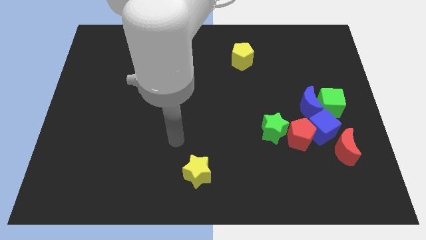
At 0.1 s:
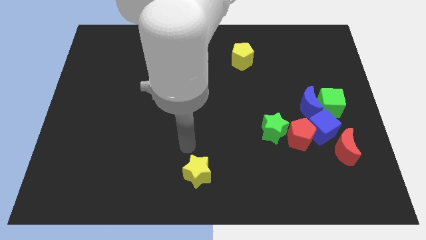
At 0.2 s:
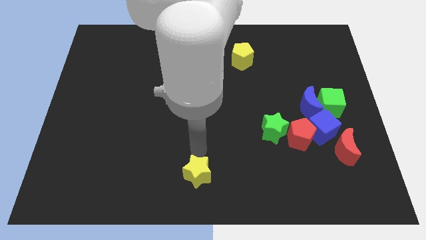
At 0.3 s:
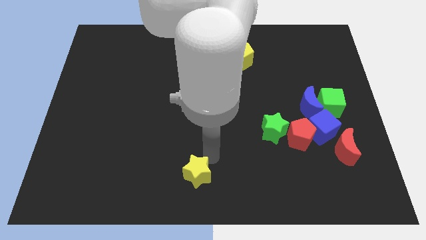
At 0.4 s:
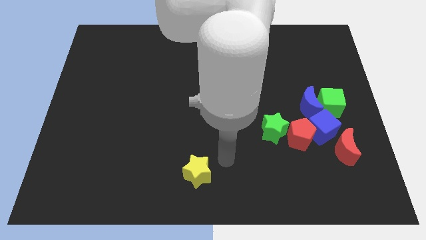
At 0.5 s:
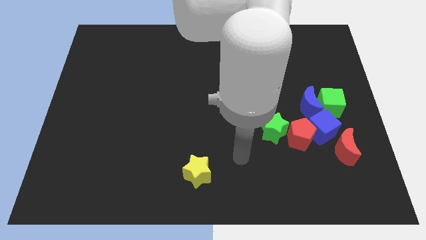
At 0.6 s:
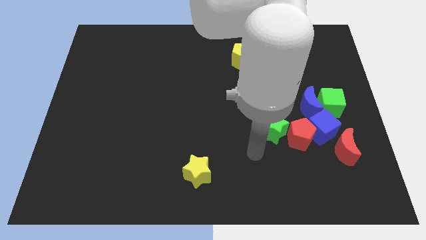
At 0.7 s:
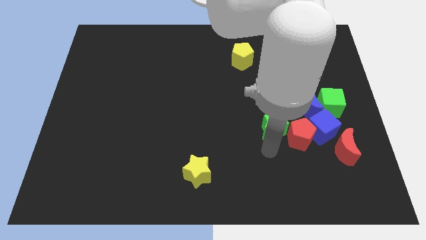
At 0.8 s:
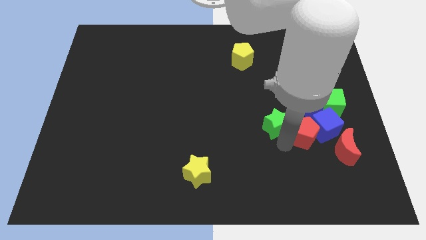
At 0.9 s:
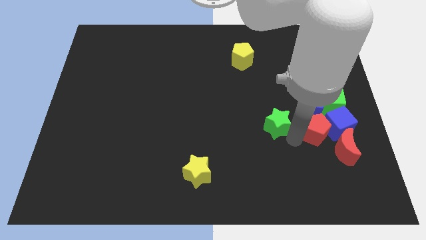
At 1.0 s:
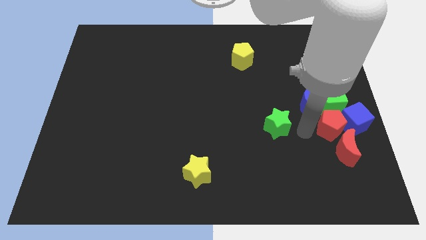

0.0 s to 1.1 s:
move the green star away from the red pentagon

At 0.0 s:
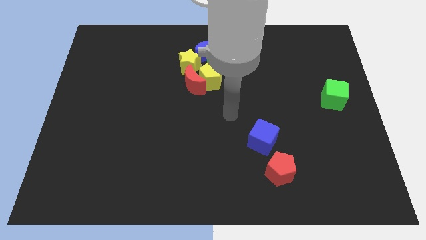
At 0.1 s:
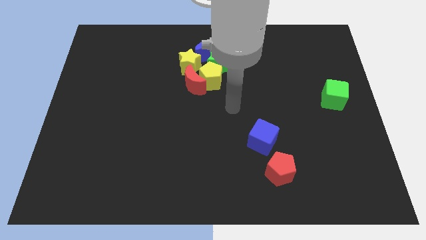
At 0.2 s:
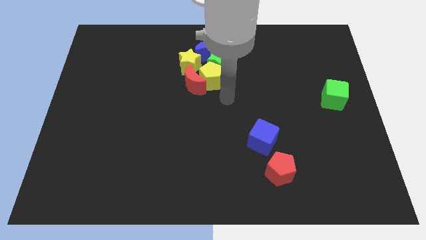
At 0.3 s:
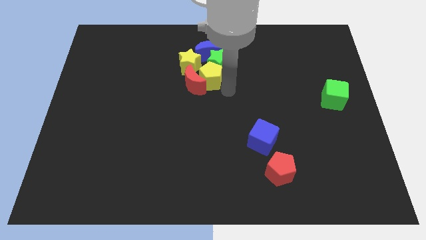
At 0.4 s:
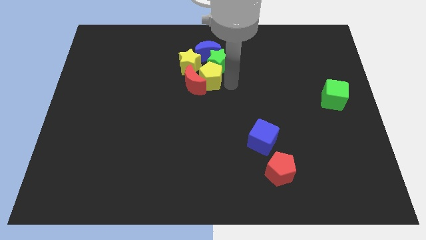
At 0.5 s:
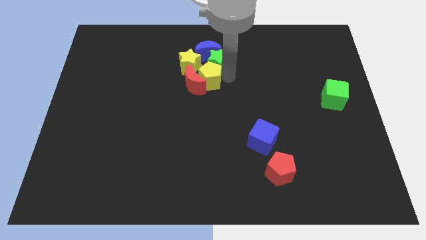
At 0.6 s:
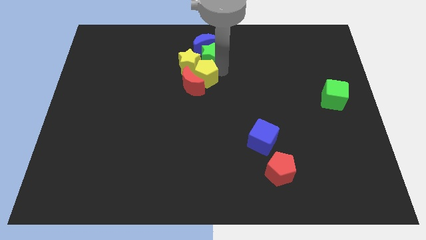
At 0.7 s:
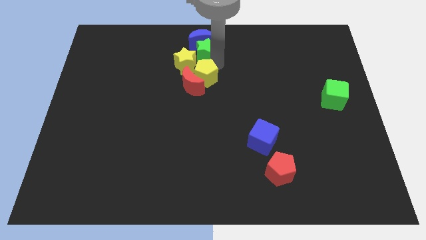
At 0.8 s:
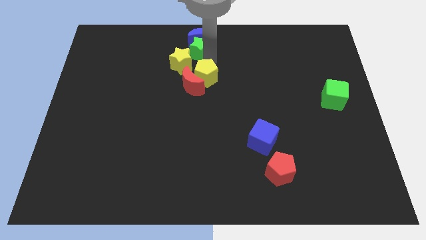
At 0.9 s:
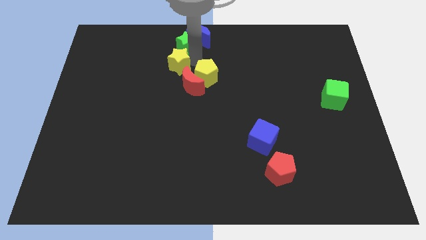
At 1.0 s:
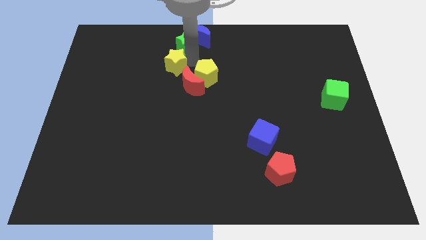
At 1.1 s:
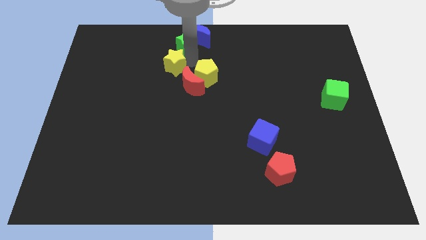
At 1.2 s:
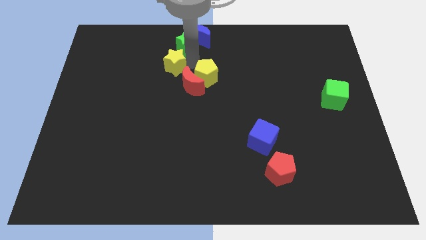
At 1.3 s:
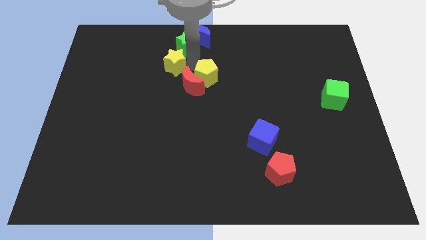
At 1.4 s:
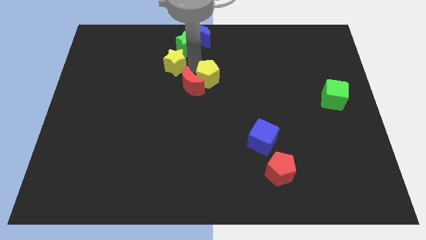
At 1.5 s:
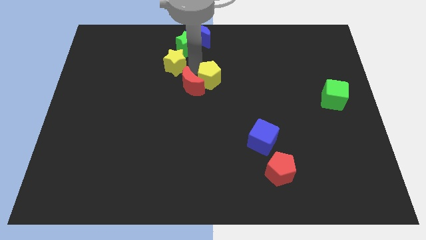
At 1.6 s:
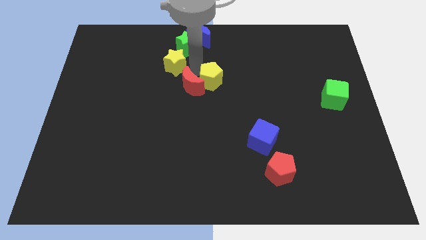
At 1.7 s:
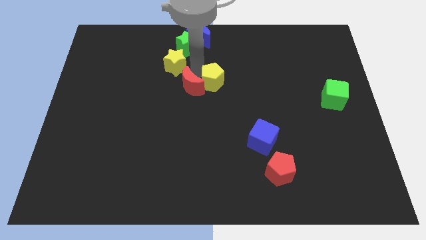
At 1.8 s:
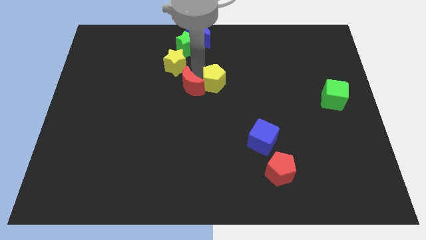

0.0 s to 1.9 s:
separate the yellow pentagon from the clump

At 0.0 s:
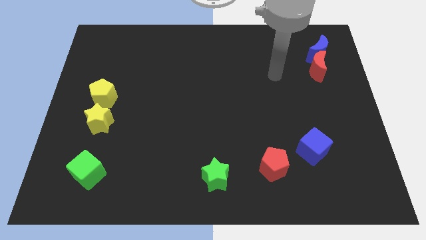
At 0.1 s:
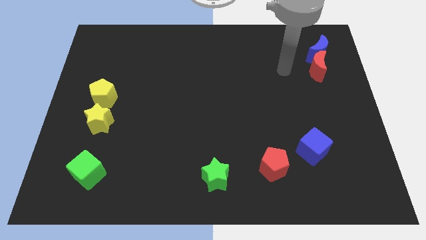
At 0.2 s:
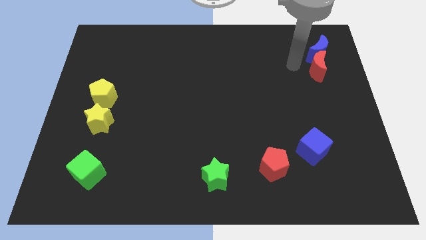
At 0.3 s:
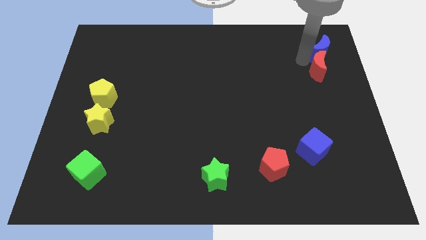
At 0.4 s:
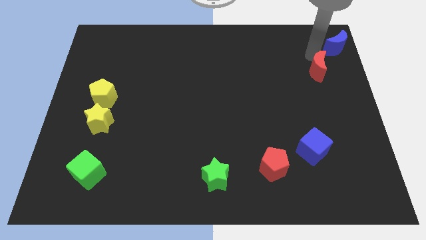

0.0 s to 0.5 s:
move the red moon away from the blue moon

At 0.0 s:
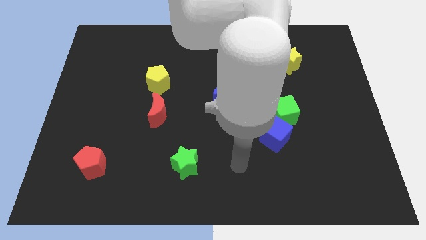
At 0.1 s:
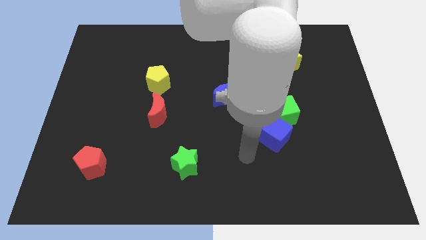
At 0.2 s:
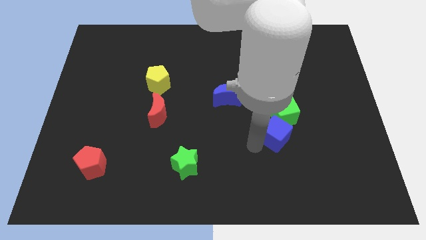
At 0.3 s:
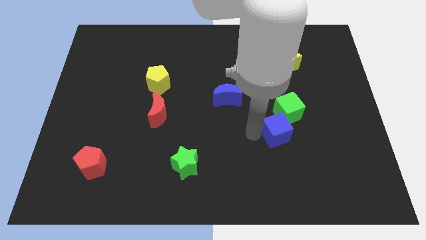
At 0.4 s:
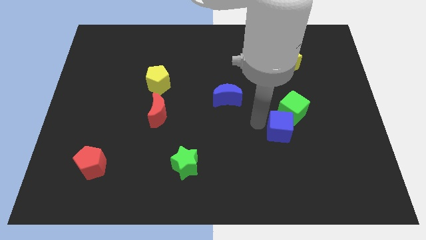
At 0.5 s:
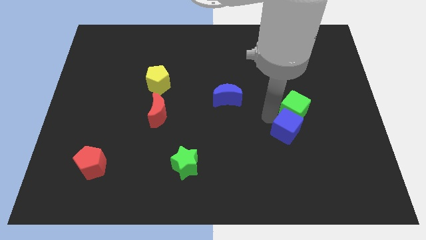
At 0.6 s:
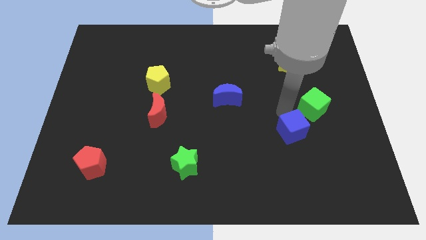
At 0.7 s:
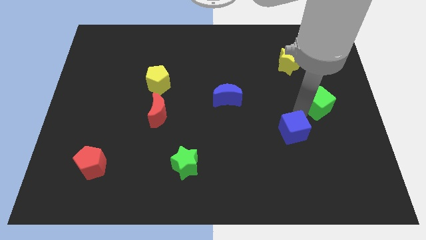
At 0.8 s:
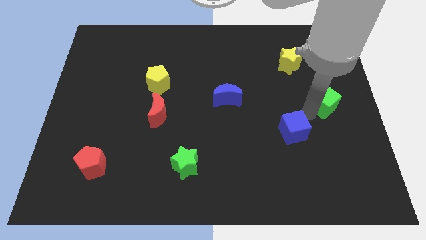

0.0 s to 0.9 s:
move the blue cube away from the green cube

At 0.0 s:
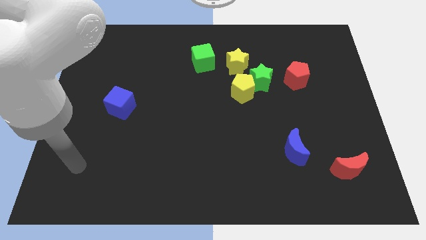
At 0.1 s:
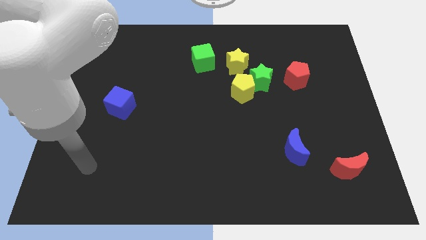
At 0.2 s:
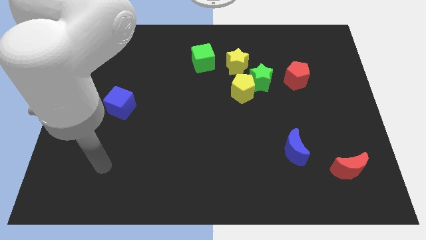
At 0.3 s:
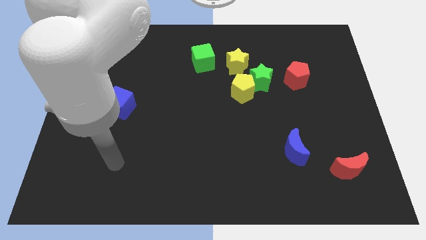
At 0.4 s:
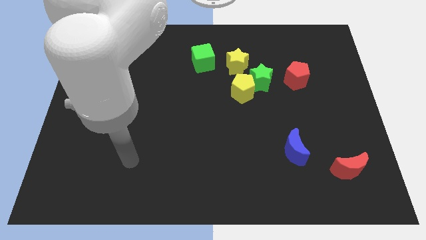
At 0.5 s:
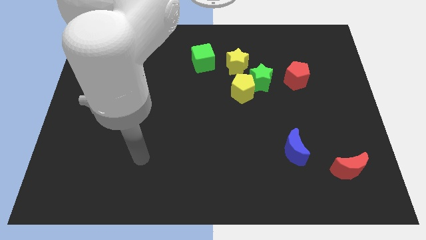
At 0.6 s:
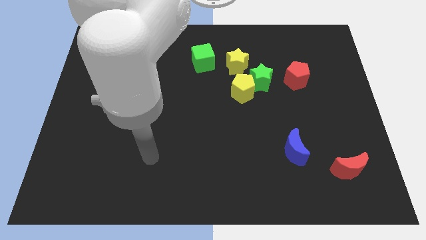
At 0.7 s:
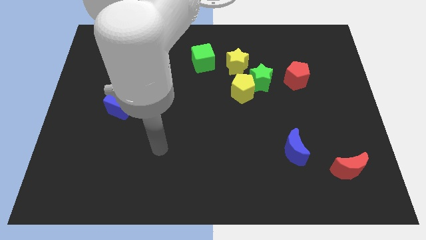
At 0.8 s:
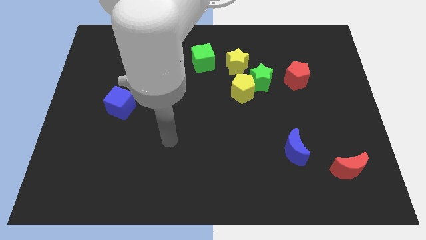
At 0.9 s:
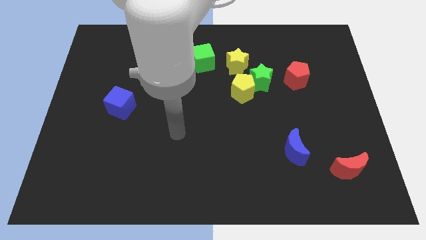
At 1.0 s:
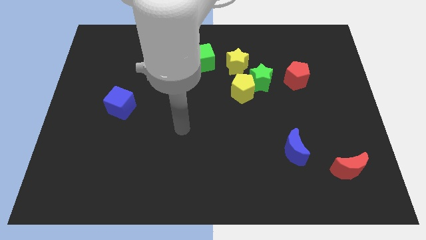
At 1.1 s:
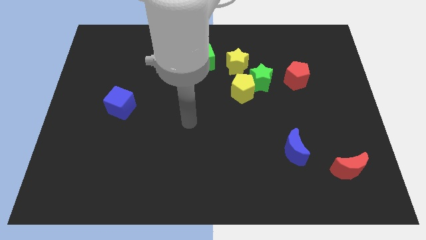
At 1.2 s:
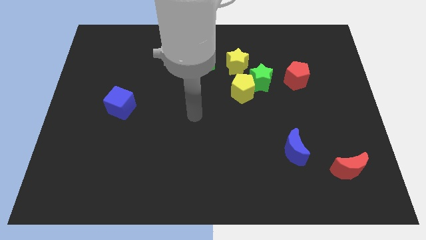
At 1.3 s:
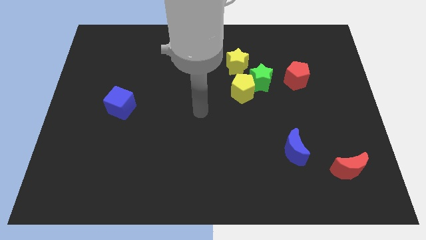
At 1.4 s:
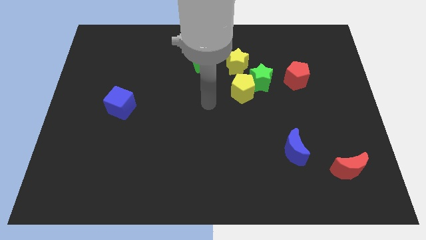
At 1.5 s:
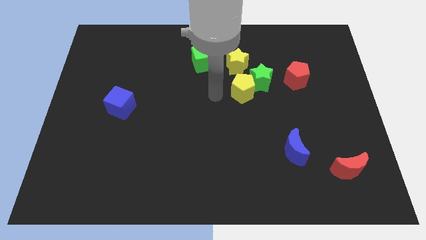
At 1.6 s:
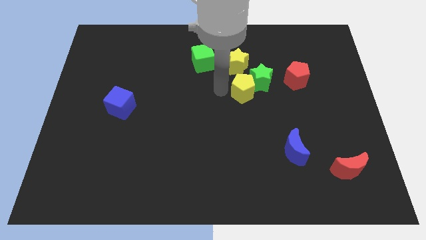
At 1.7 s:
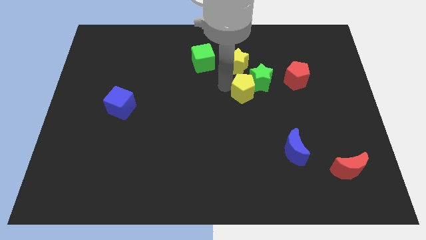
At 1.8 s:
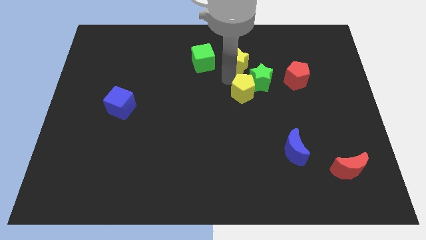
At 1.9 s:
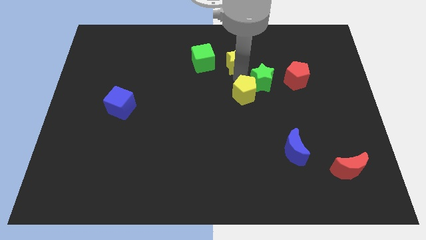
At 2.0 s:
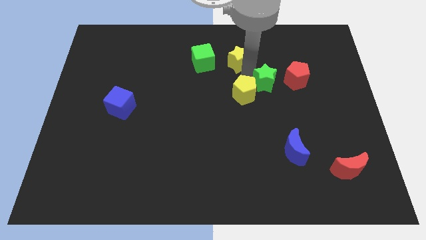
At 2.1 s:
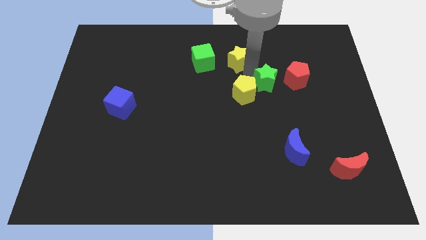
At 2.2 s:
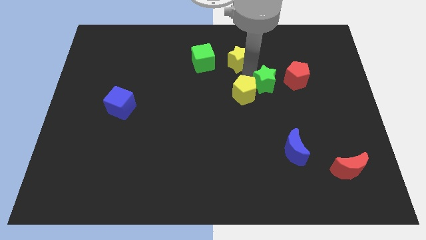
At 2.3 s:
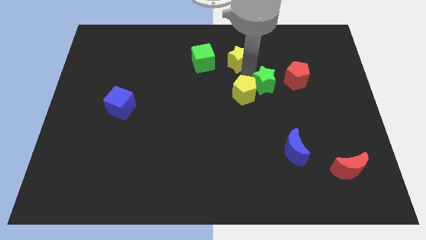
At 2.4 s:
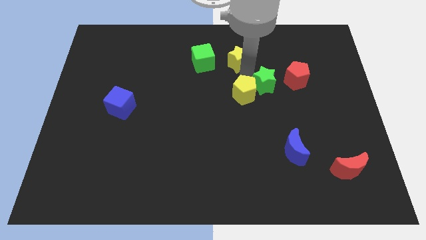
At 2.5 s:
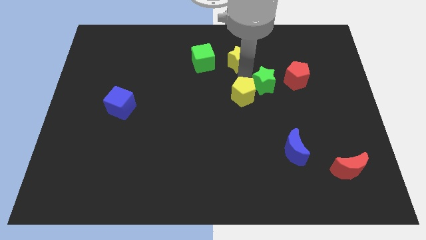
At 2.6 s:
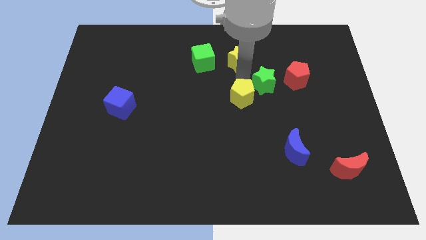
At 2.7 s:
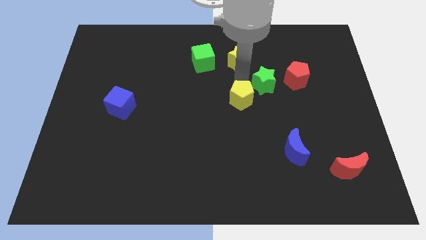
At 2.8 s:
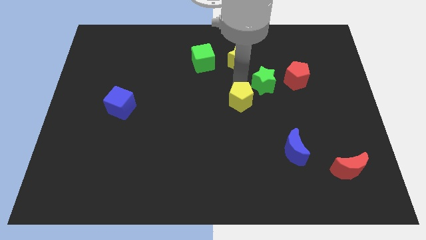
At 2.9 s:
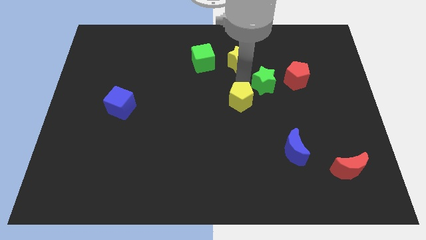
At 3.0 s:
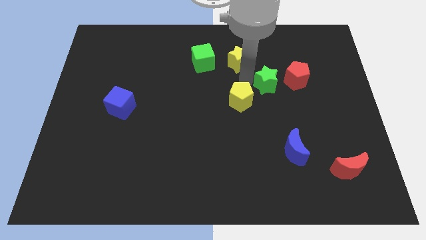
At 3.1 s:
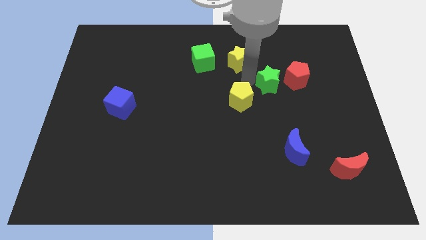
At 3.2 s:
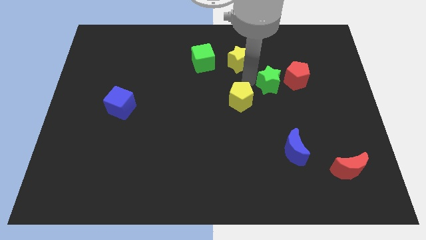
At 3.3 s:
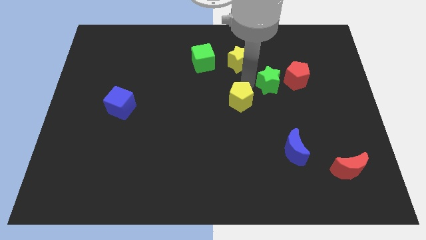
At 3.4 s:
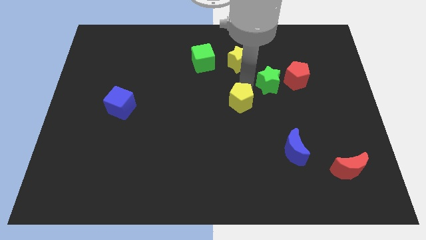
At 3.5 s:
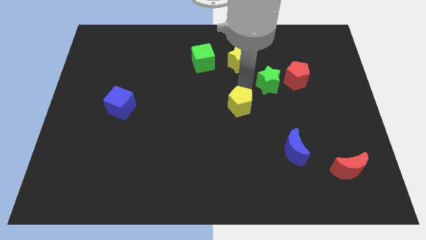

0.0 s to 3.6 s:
move the yellow pentagon away from the green star and yellow star

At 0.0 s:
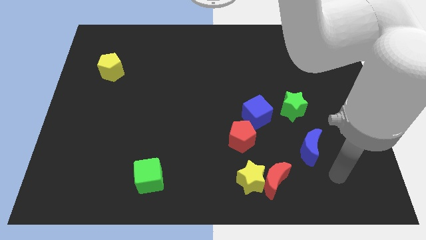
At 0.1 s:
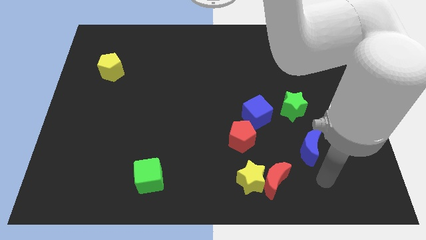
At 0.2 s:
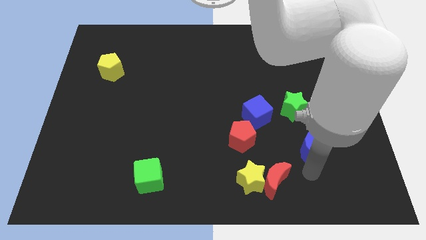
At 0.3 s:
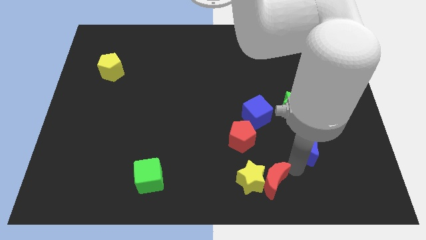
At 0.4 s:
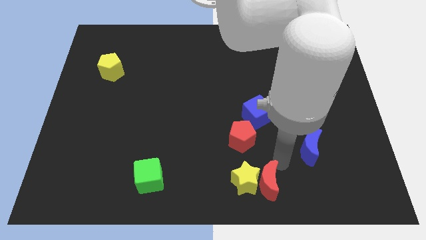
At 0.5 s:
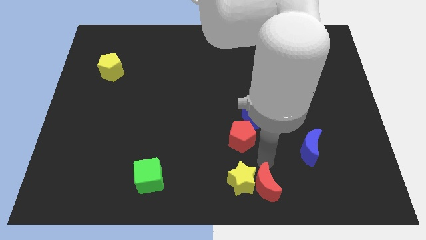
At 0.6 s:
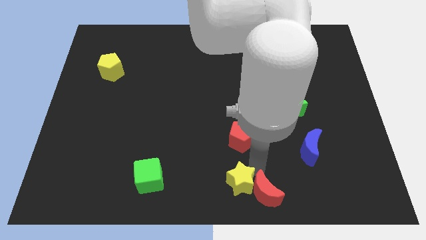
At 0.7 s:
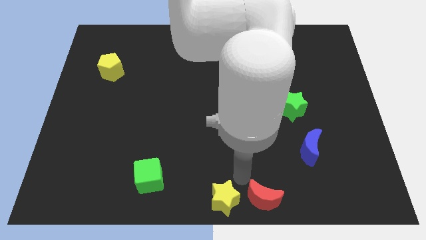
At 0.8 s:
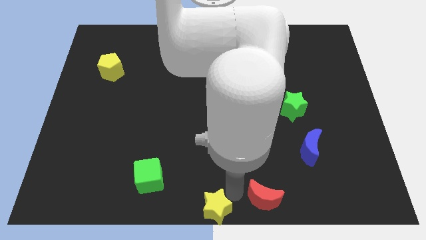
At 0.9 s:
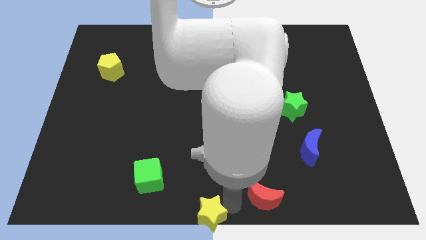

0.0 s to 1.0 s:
separate the red moon from the yellow star

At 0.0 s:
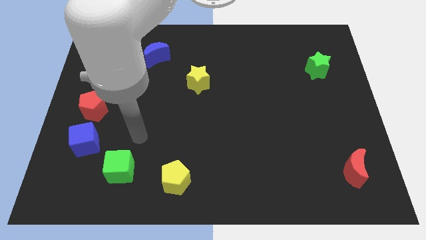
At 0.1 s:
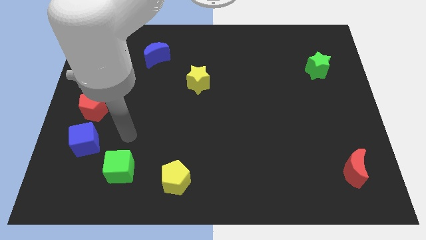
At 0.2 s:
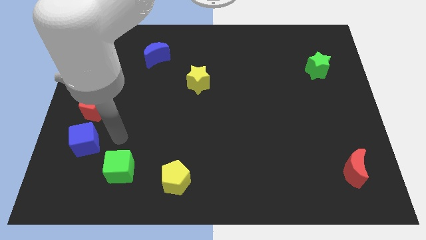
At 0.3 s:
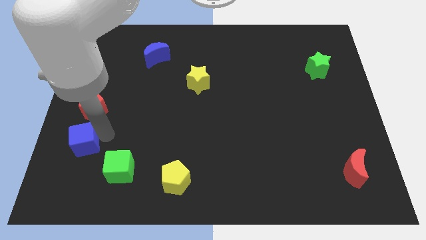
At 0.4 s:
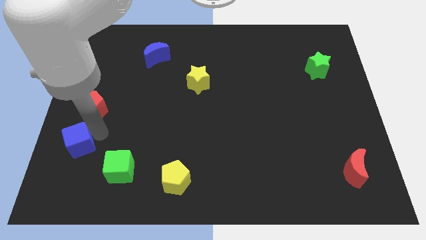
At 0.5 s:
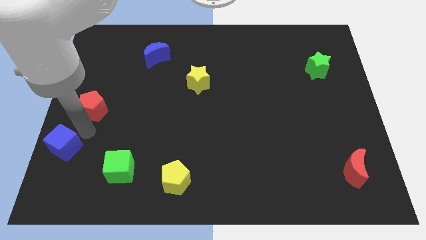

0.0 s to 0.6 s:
separate the red pentagon from the blue cube
